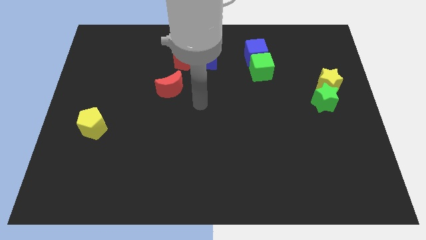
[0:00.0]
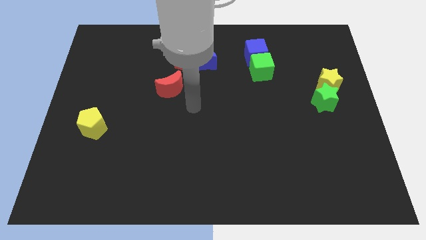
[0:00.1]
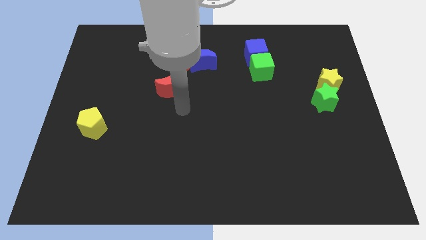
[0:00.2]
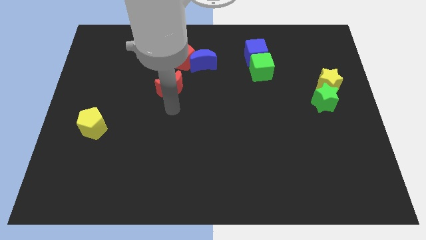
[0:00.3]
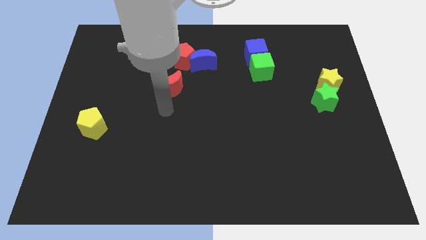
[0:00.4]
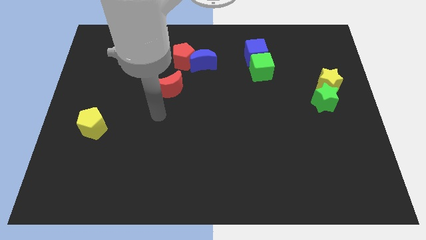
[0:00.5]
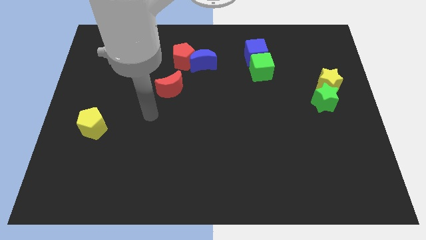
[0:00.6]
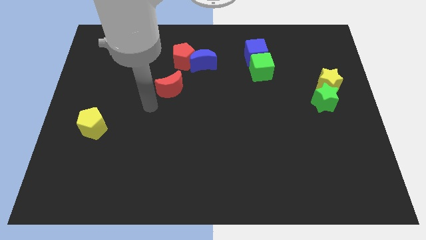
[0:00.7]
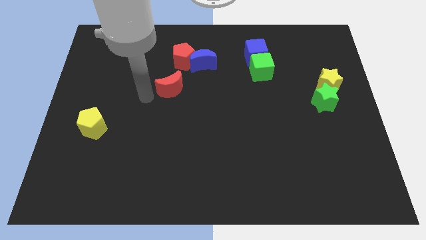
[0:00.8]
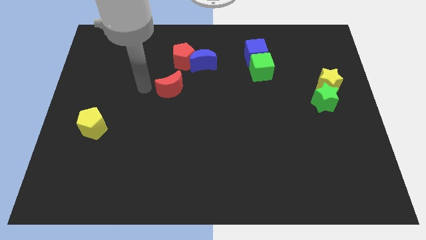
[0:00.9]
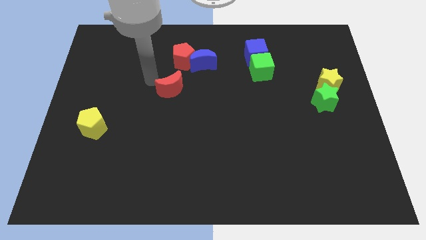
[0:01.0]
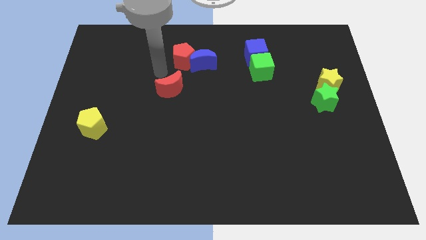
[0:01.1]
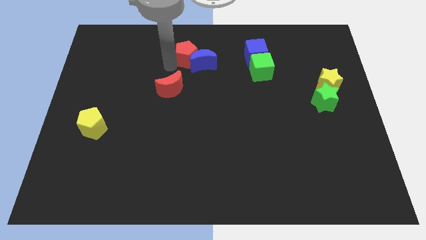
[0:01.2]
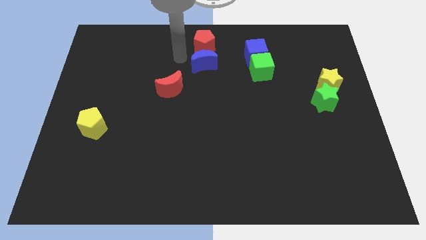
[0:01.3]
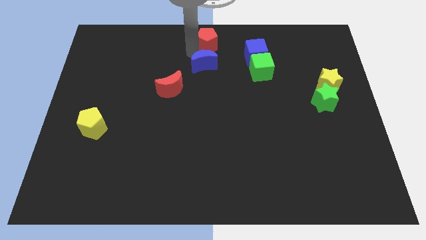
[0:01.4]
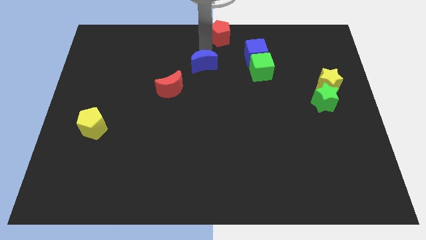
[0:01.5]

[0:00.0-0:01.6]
move the blue moon away from the red pentagon

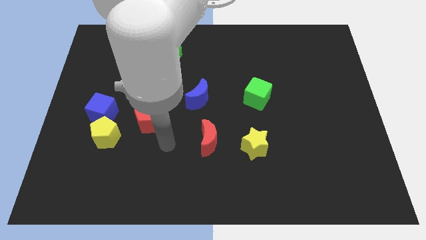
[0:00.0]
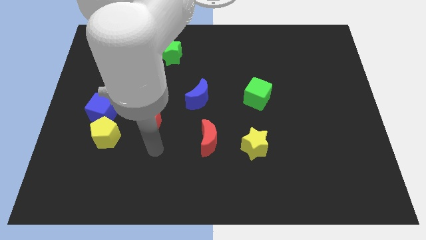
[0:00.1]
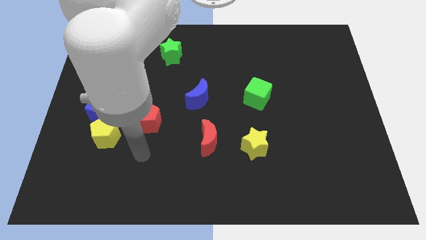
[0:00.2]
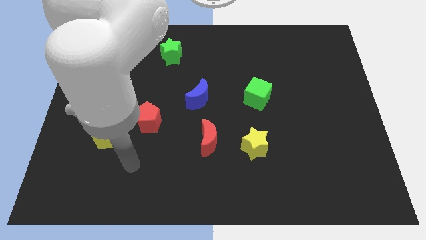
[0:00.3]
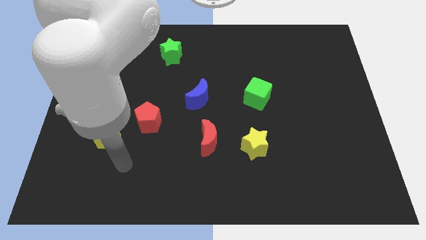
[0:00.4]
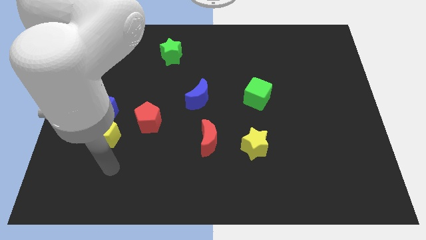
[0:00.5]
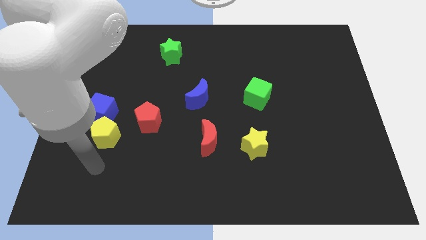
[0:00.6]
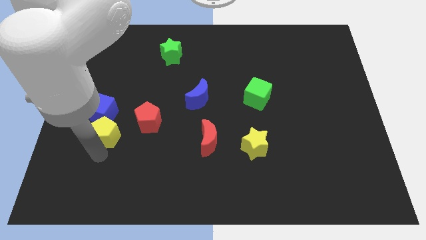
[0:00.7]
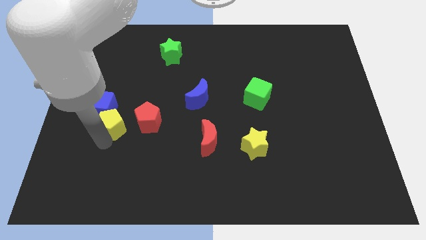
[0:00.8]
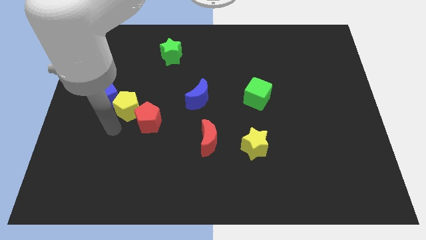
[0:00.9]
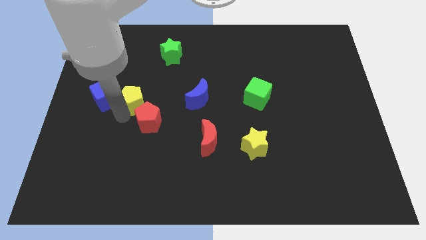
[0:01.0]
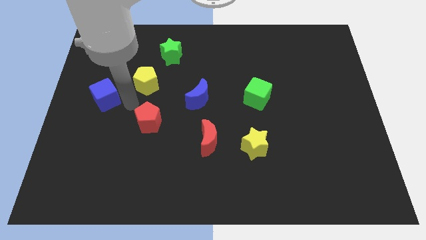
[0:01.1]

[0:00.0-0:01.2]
pull the blue cube apart from the yellow pentagon

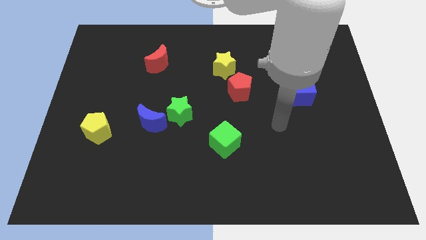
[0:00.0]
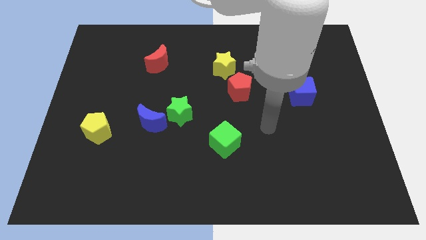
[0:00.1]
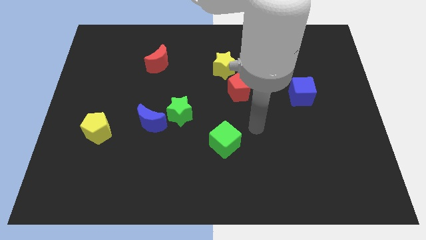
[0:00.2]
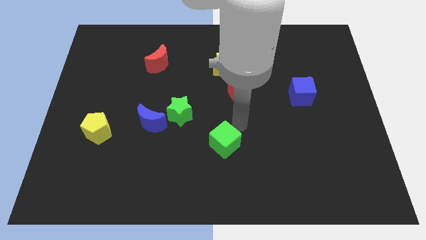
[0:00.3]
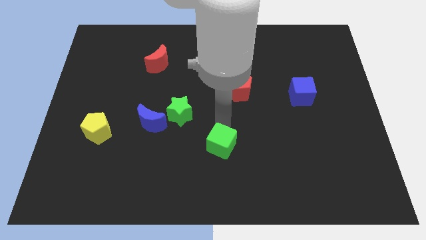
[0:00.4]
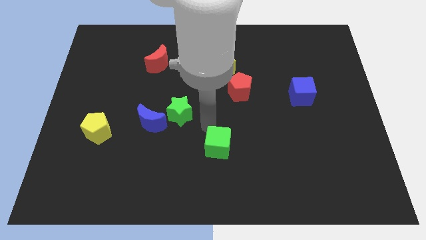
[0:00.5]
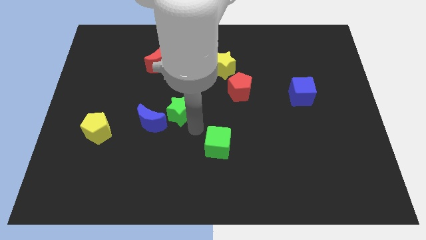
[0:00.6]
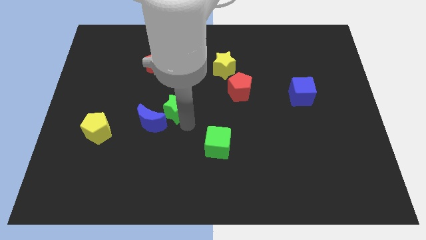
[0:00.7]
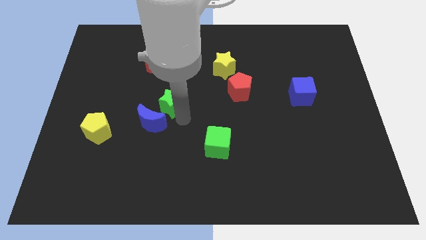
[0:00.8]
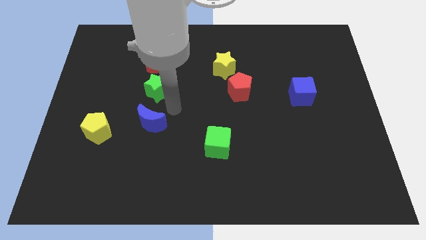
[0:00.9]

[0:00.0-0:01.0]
separate the blue moon from the green star

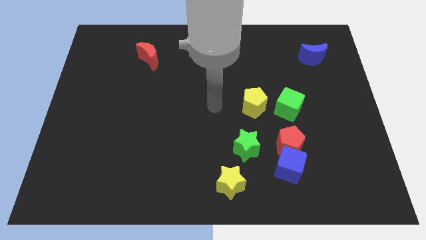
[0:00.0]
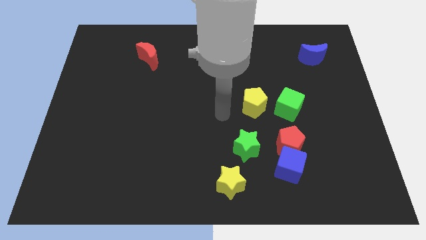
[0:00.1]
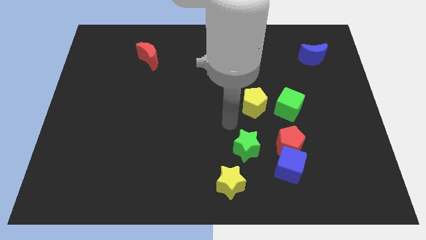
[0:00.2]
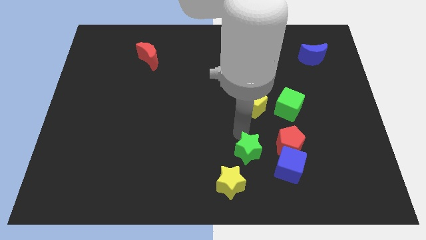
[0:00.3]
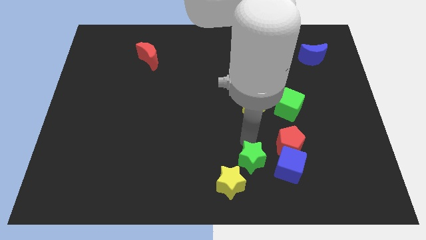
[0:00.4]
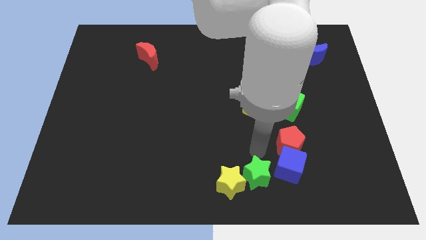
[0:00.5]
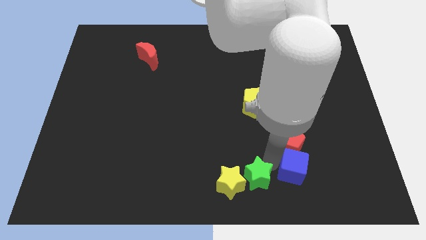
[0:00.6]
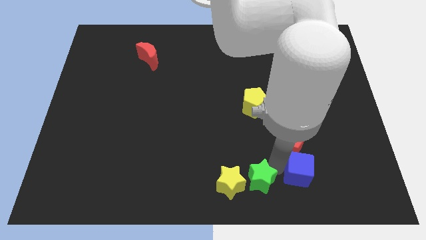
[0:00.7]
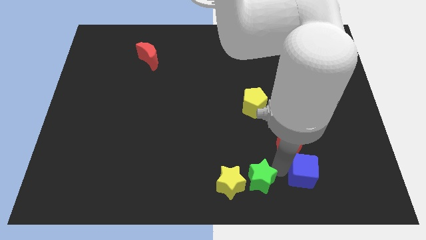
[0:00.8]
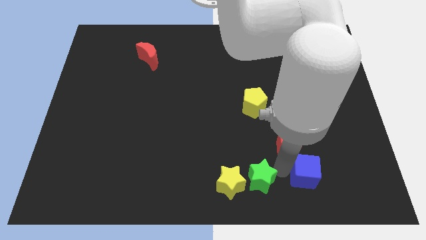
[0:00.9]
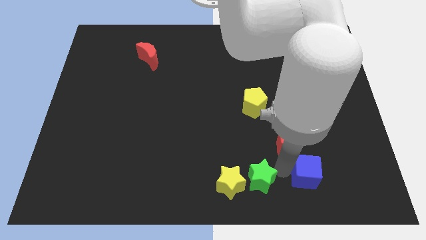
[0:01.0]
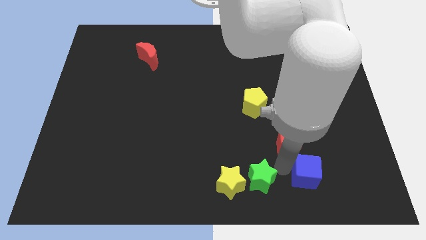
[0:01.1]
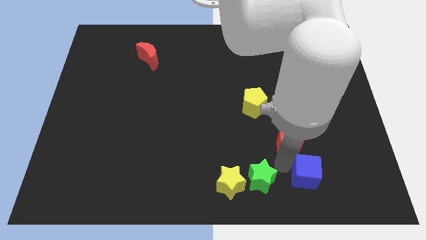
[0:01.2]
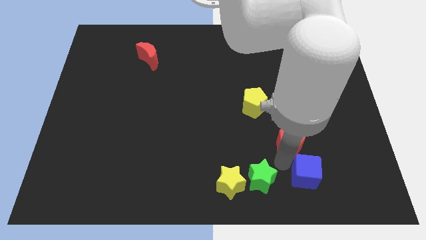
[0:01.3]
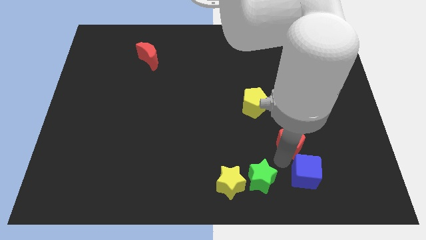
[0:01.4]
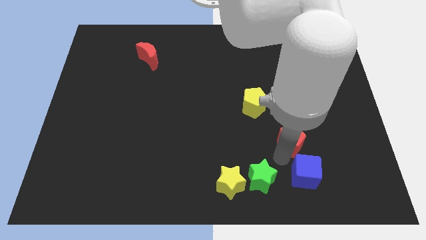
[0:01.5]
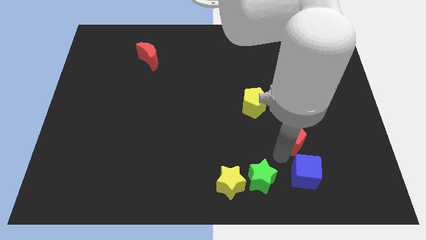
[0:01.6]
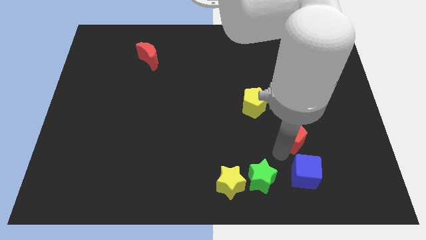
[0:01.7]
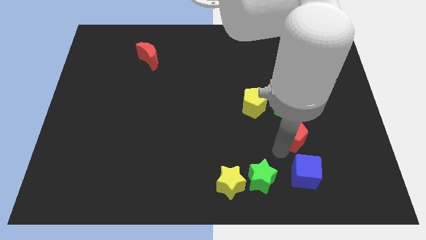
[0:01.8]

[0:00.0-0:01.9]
pull the red pentagon apart from the blue cube and green star

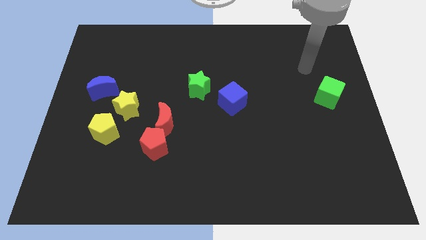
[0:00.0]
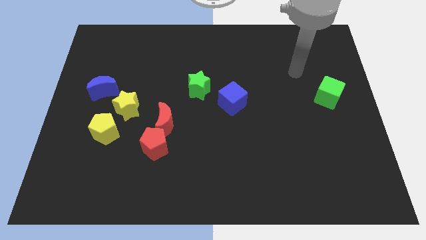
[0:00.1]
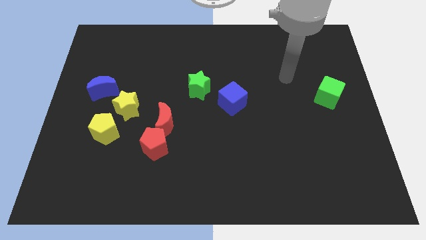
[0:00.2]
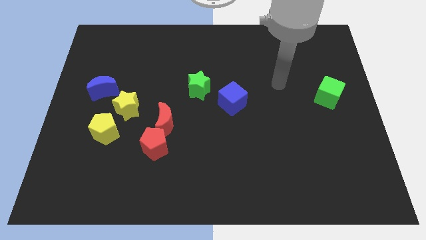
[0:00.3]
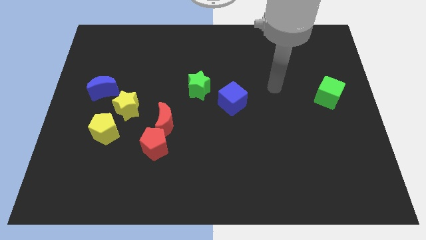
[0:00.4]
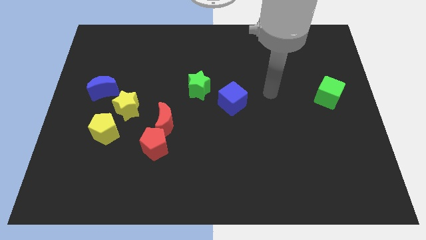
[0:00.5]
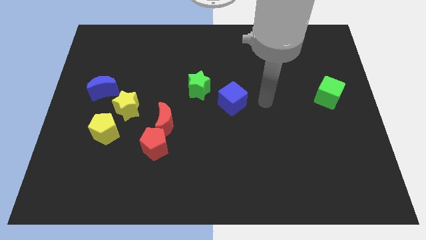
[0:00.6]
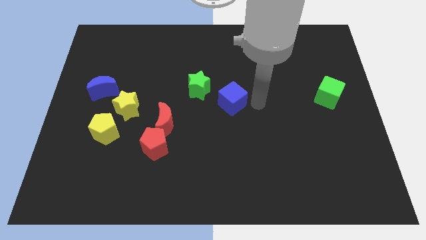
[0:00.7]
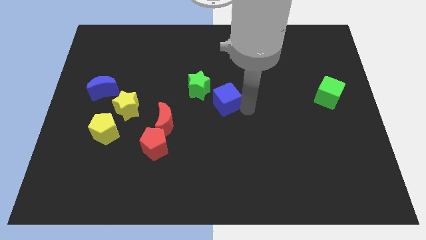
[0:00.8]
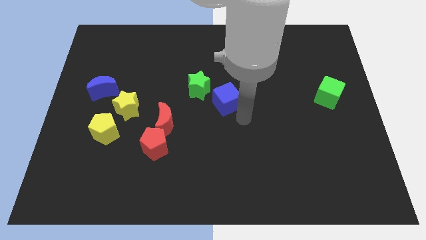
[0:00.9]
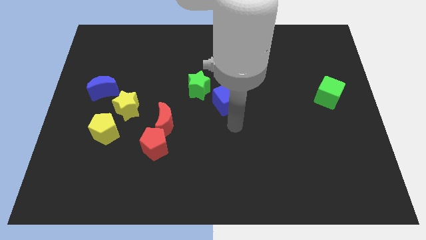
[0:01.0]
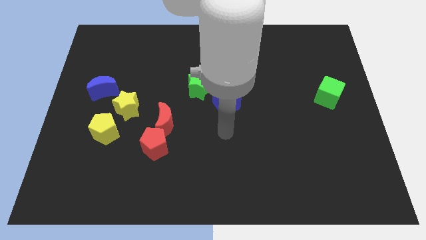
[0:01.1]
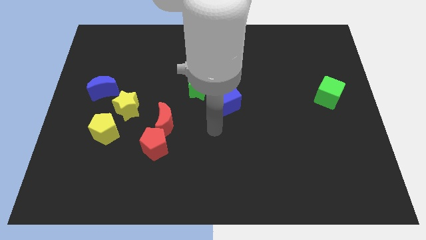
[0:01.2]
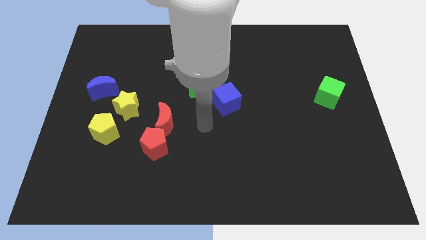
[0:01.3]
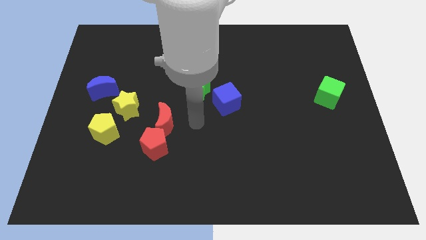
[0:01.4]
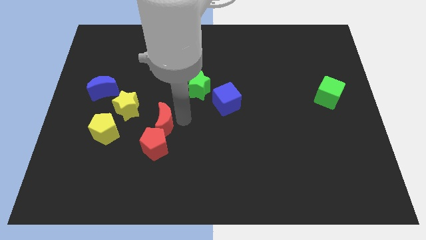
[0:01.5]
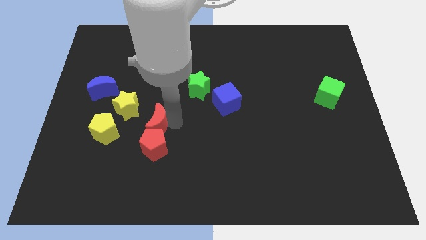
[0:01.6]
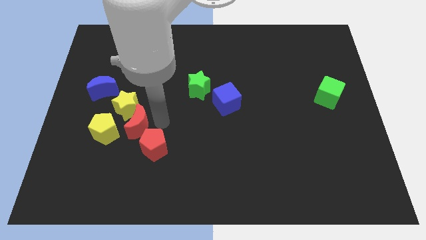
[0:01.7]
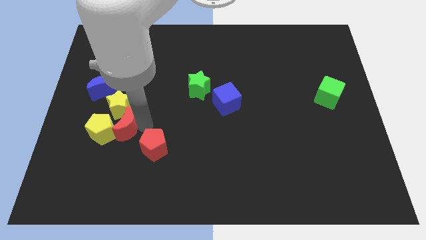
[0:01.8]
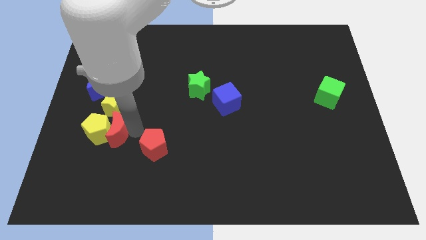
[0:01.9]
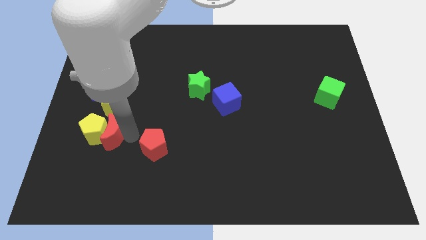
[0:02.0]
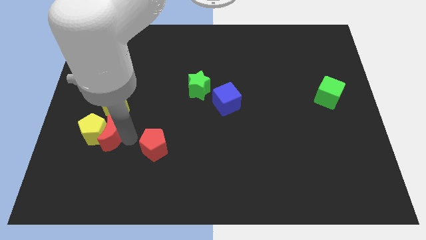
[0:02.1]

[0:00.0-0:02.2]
separate the red pentagon from the red moon

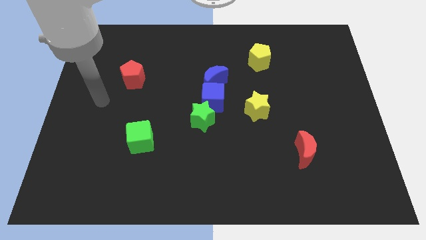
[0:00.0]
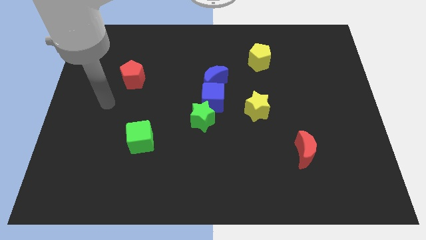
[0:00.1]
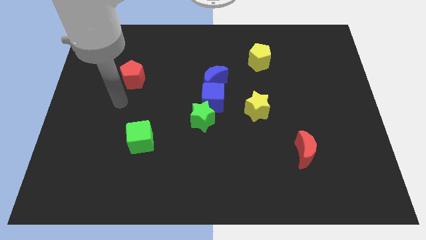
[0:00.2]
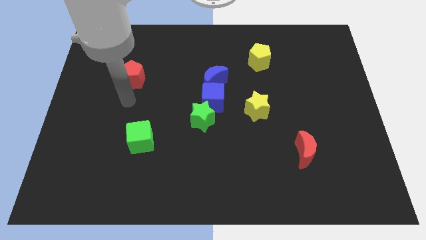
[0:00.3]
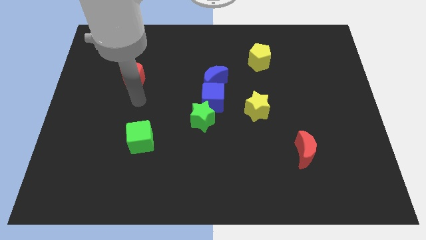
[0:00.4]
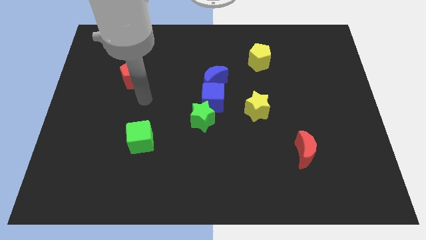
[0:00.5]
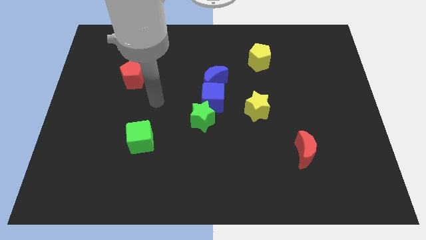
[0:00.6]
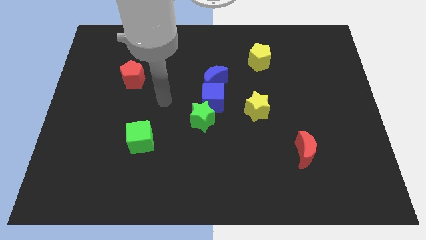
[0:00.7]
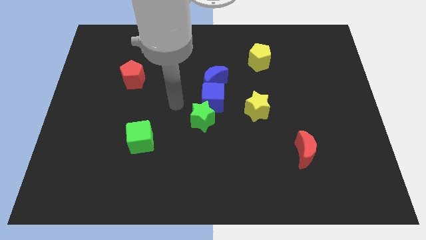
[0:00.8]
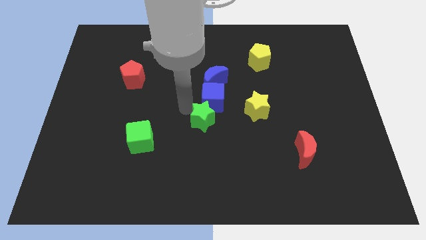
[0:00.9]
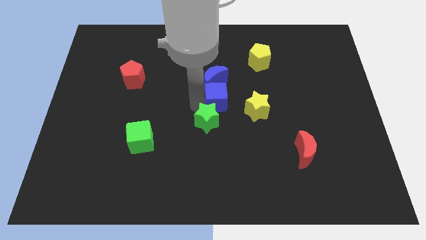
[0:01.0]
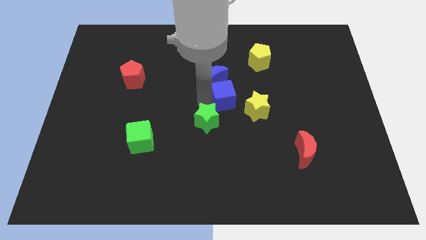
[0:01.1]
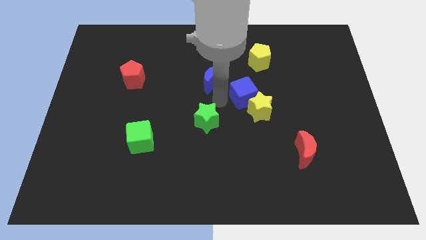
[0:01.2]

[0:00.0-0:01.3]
pull the green star apart from the blue cube
